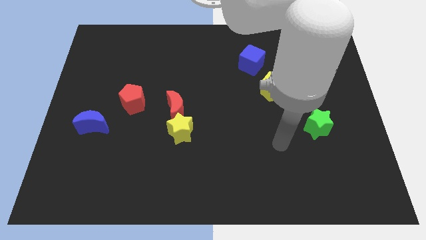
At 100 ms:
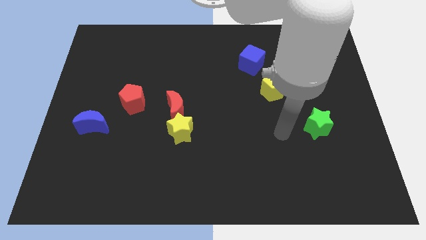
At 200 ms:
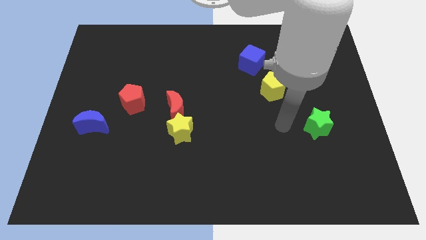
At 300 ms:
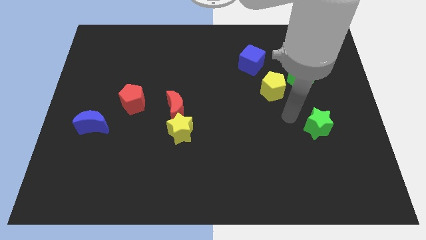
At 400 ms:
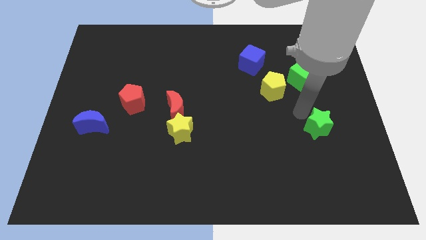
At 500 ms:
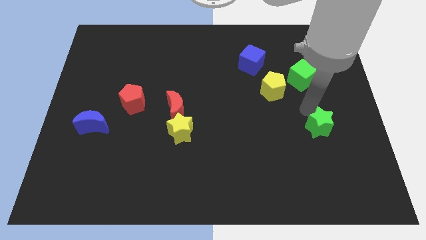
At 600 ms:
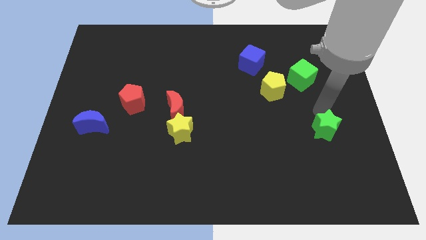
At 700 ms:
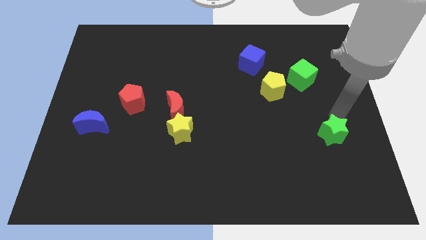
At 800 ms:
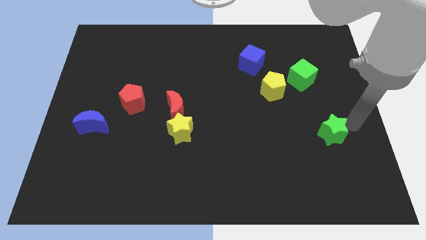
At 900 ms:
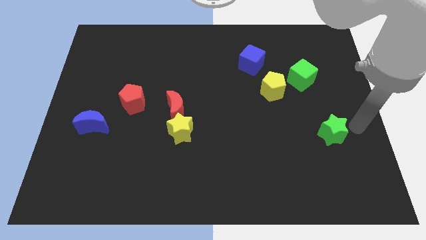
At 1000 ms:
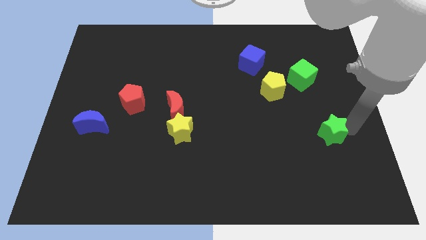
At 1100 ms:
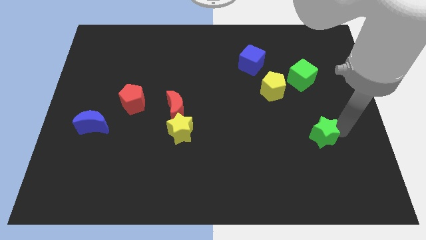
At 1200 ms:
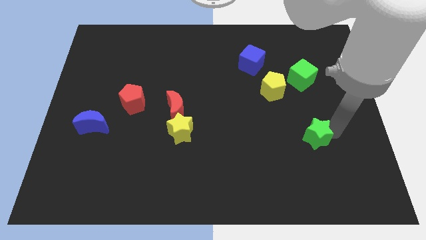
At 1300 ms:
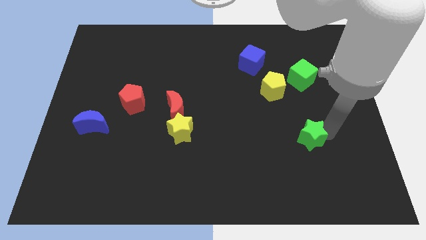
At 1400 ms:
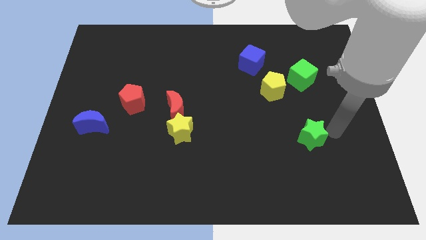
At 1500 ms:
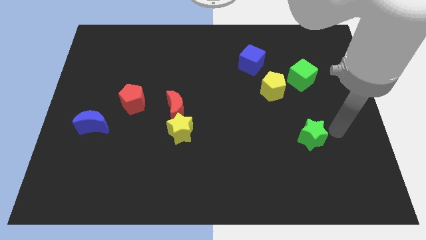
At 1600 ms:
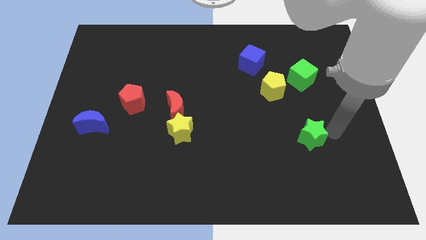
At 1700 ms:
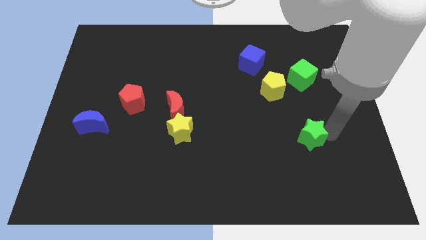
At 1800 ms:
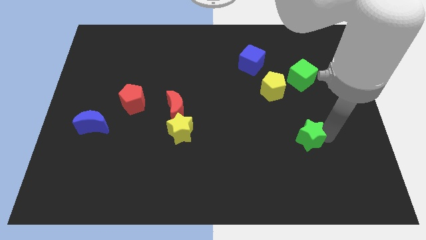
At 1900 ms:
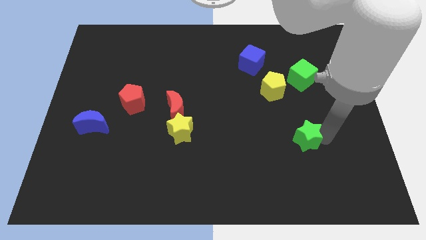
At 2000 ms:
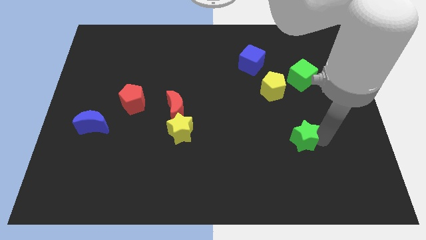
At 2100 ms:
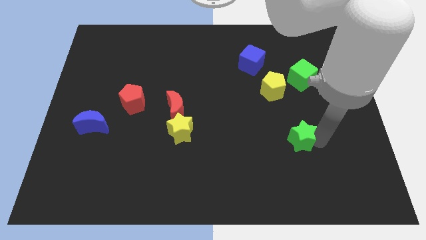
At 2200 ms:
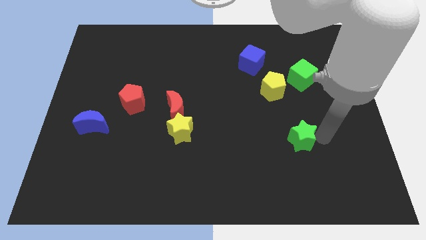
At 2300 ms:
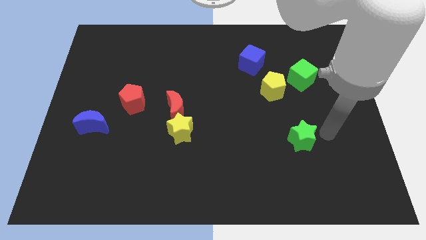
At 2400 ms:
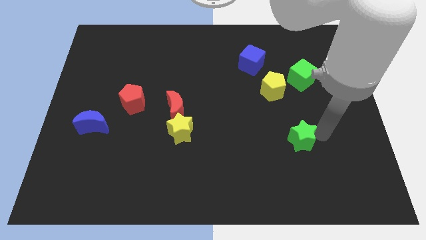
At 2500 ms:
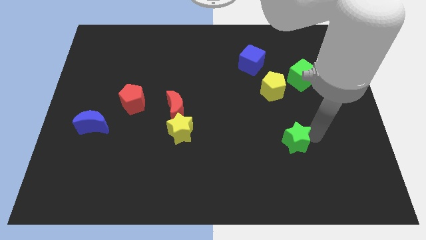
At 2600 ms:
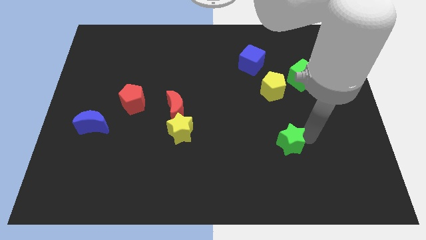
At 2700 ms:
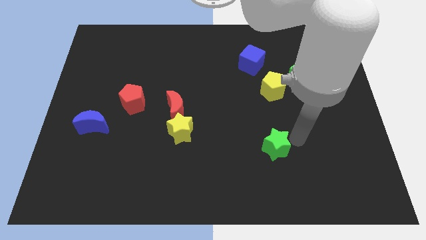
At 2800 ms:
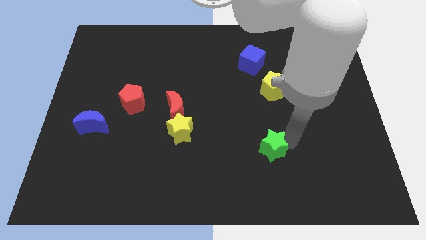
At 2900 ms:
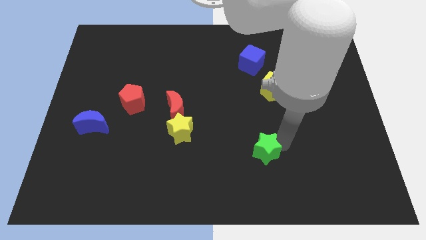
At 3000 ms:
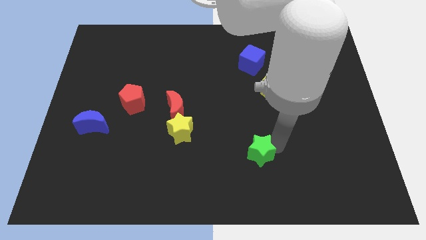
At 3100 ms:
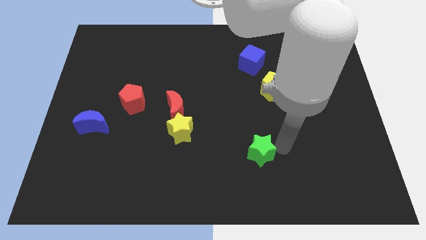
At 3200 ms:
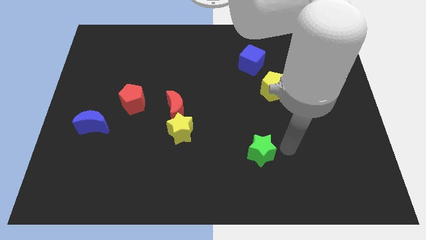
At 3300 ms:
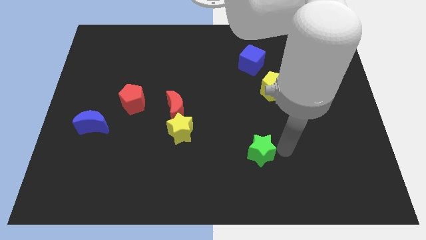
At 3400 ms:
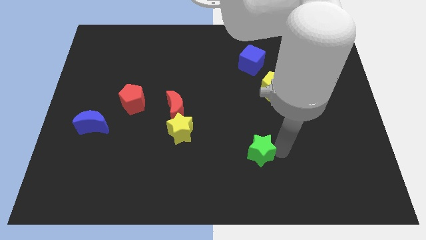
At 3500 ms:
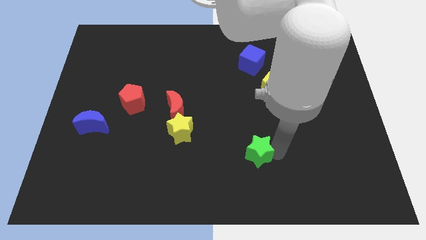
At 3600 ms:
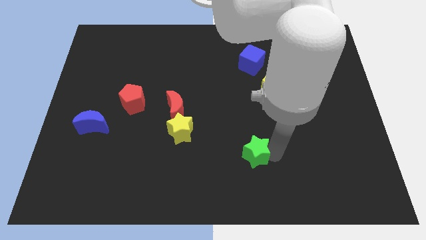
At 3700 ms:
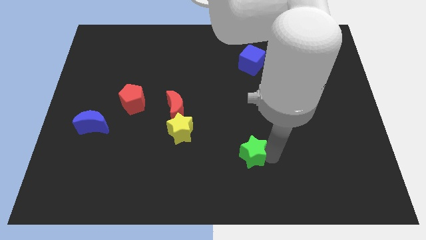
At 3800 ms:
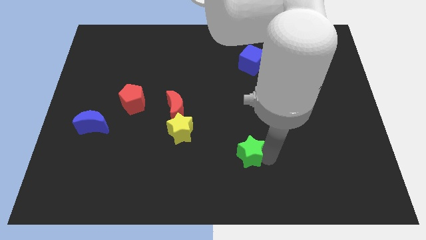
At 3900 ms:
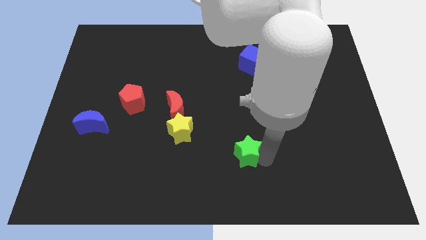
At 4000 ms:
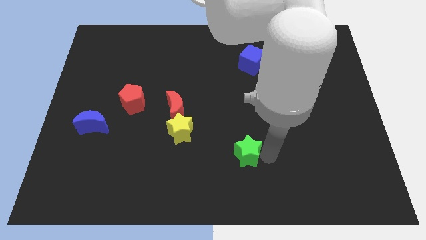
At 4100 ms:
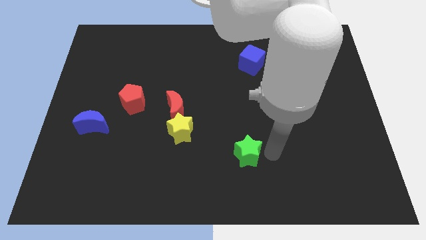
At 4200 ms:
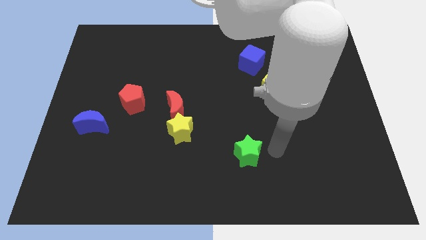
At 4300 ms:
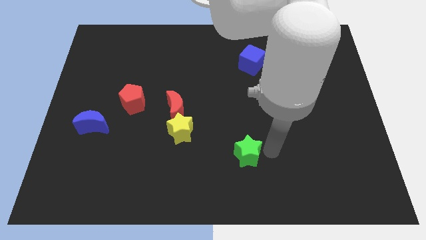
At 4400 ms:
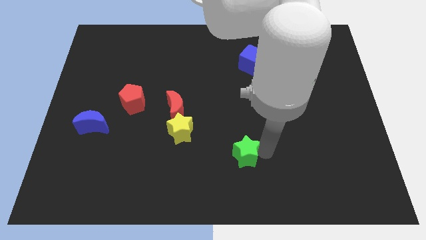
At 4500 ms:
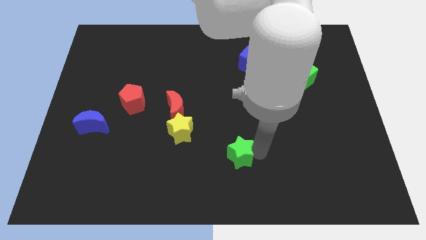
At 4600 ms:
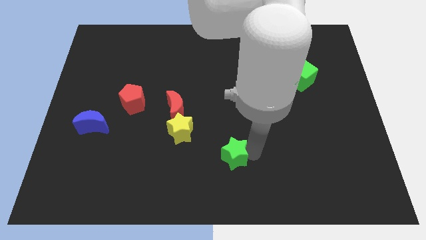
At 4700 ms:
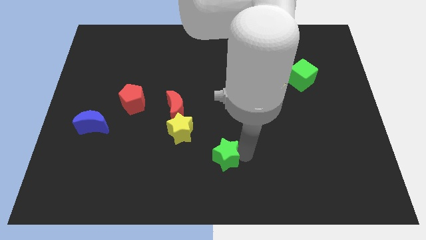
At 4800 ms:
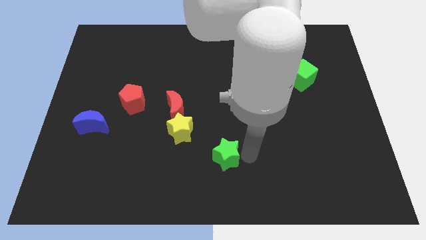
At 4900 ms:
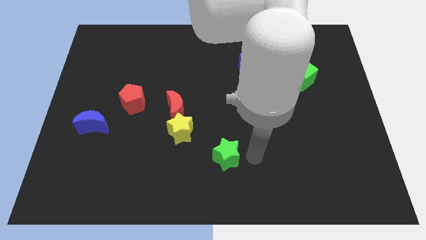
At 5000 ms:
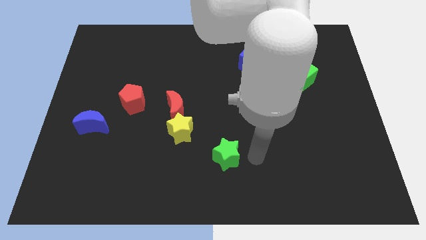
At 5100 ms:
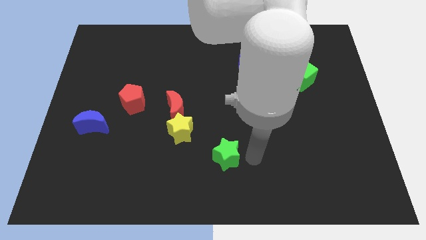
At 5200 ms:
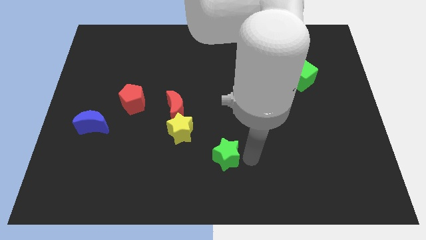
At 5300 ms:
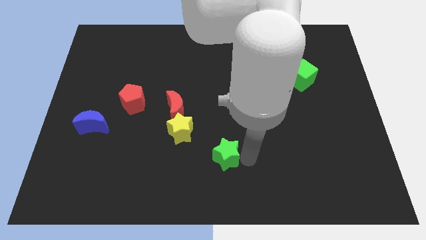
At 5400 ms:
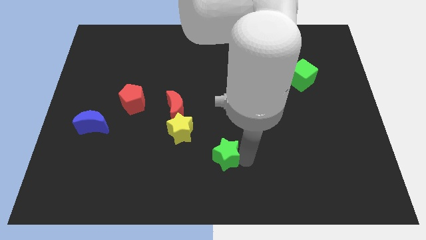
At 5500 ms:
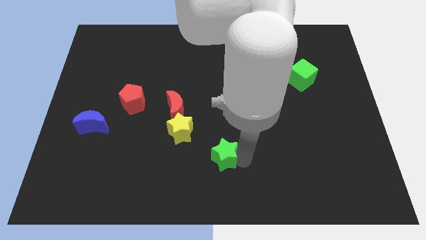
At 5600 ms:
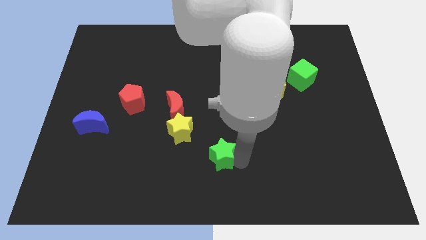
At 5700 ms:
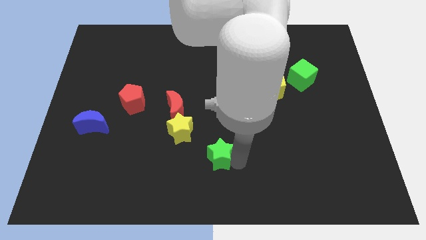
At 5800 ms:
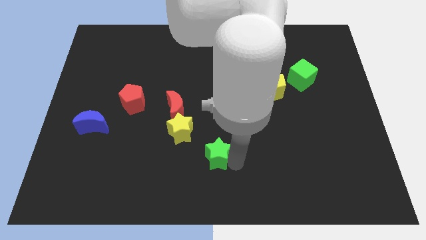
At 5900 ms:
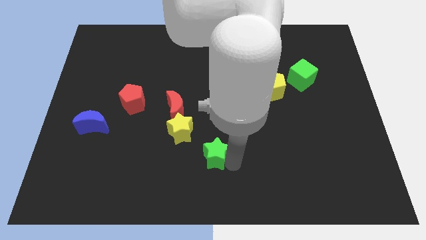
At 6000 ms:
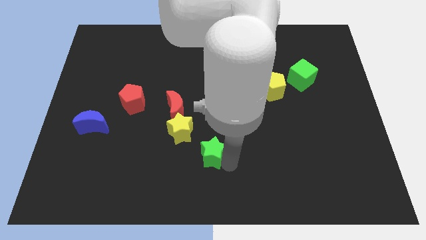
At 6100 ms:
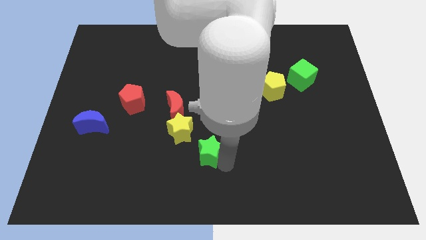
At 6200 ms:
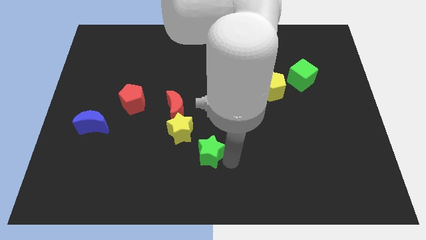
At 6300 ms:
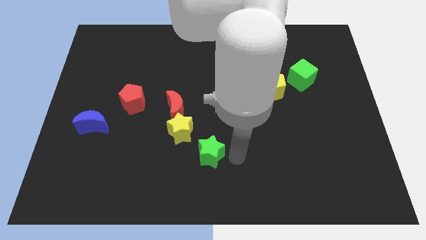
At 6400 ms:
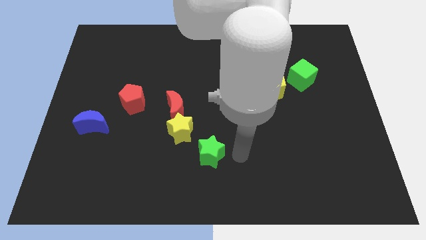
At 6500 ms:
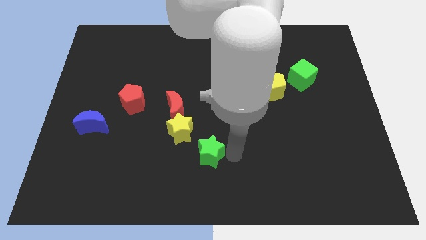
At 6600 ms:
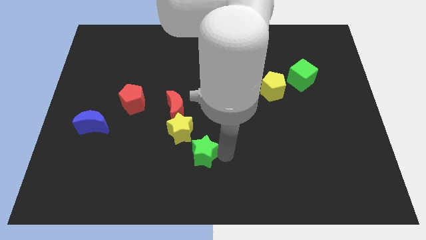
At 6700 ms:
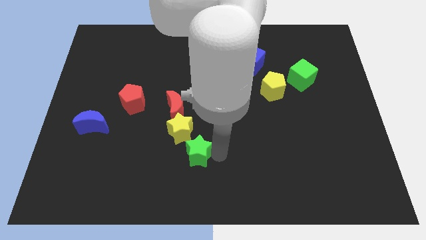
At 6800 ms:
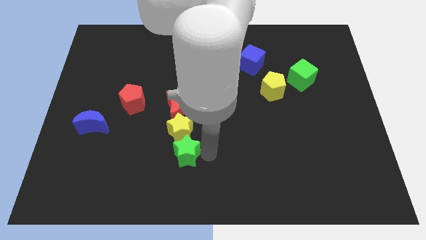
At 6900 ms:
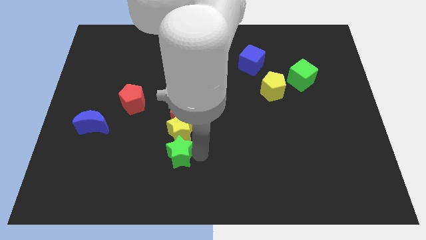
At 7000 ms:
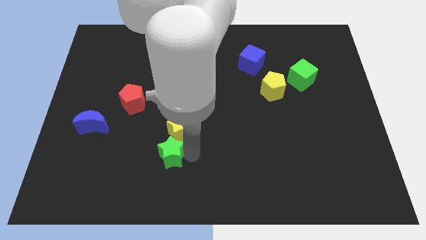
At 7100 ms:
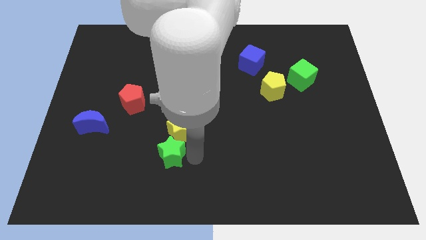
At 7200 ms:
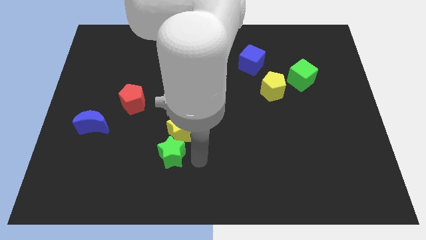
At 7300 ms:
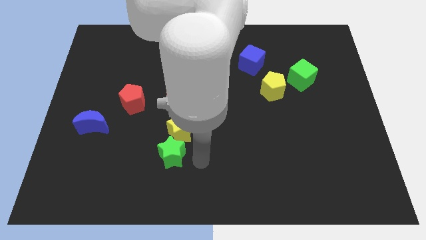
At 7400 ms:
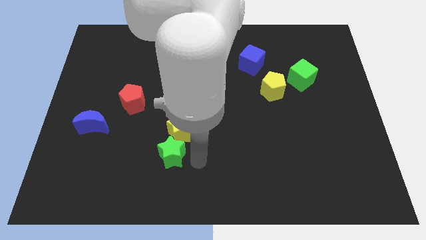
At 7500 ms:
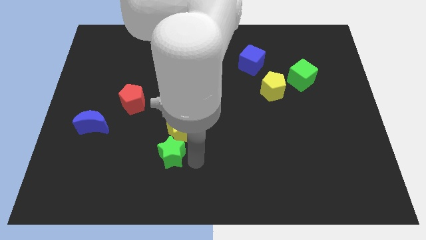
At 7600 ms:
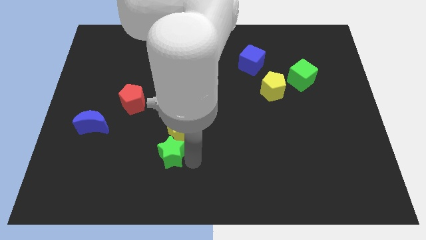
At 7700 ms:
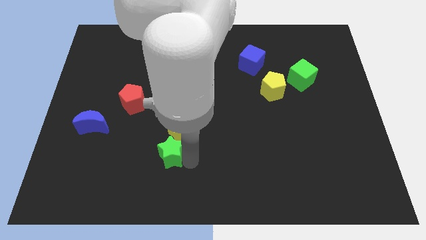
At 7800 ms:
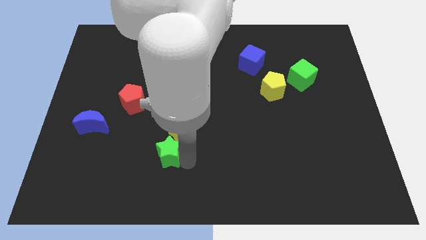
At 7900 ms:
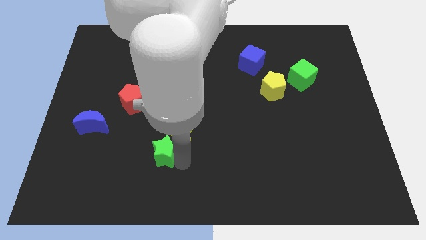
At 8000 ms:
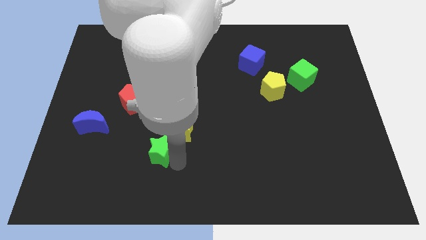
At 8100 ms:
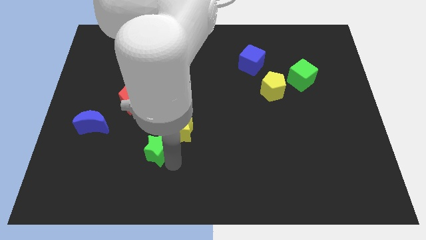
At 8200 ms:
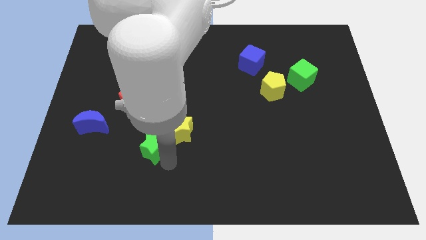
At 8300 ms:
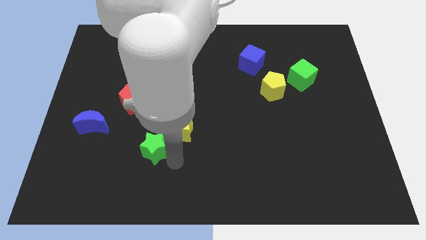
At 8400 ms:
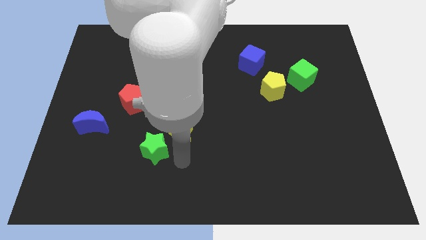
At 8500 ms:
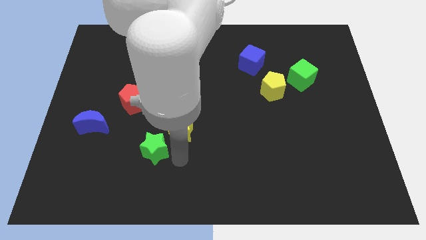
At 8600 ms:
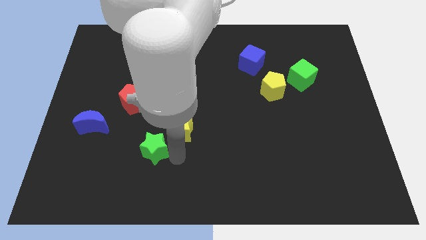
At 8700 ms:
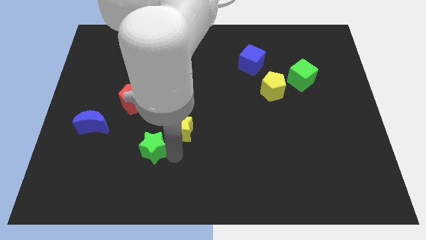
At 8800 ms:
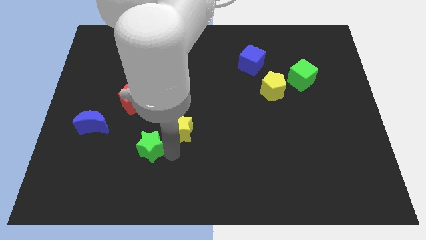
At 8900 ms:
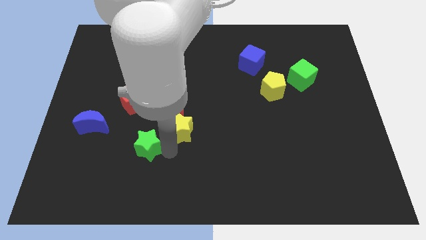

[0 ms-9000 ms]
put the green star below the red pentagon
